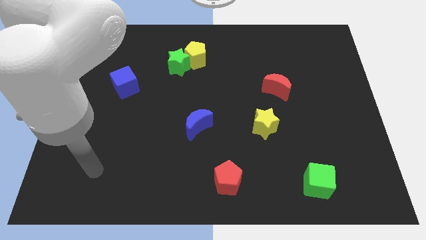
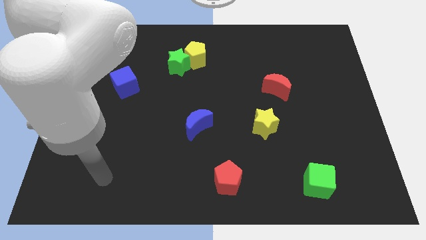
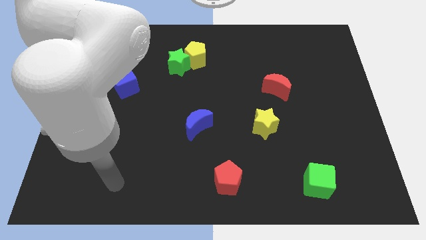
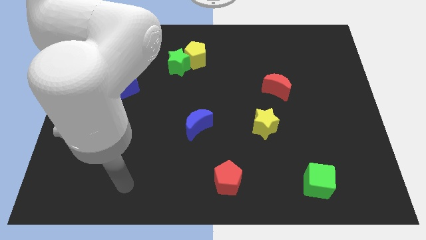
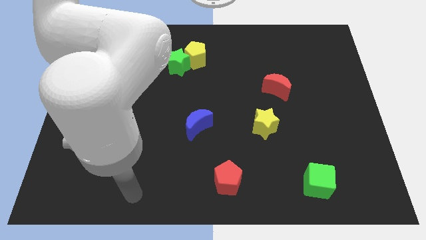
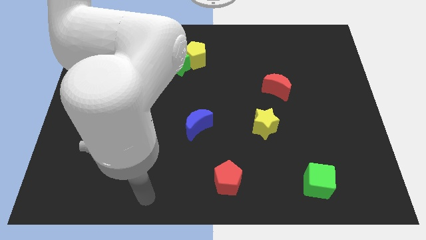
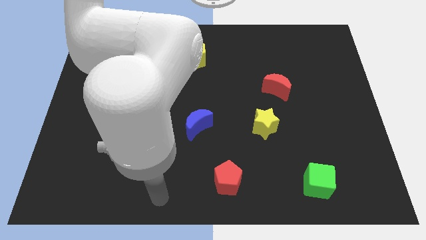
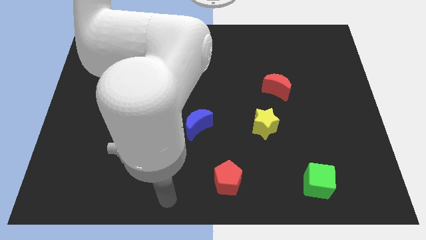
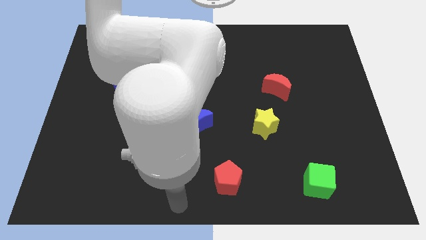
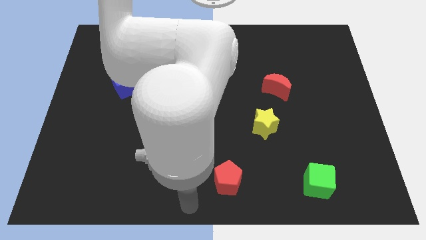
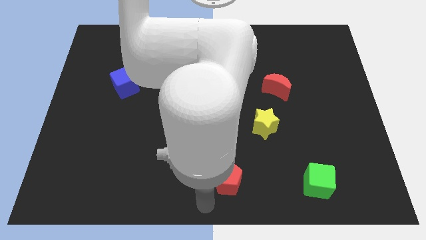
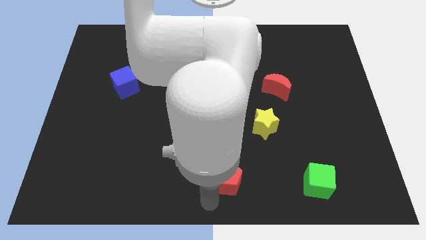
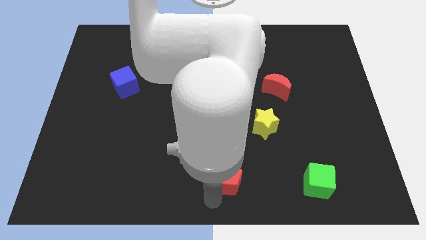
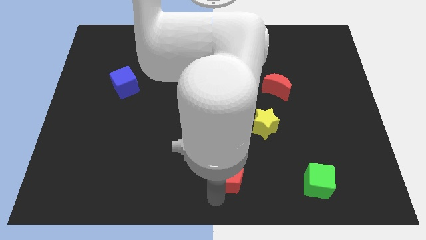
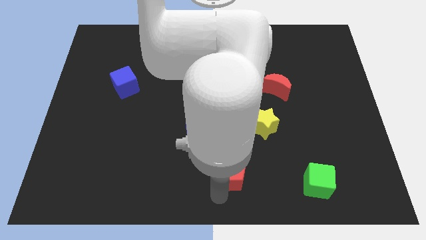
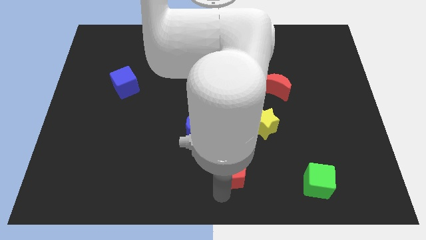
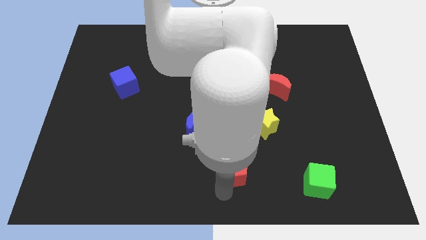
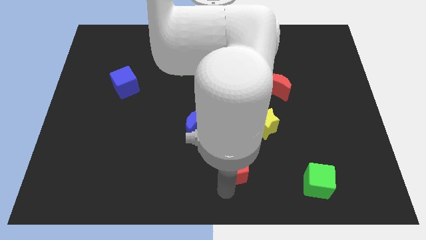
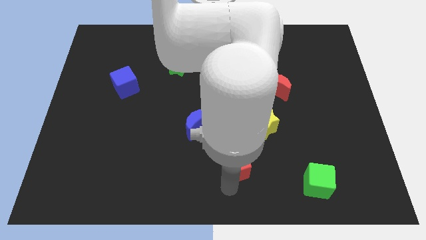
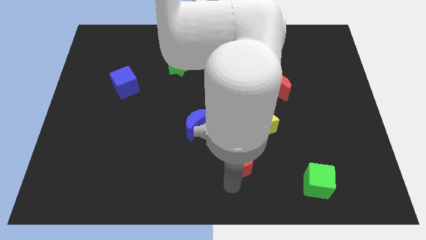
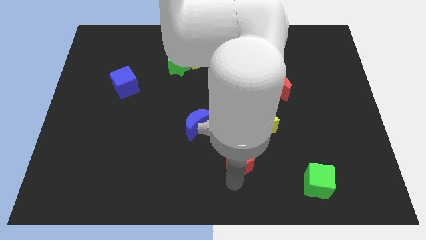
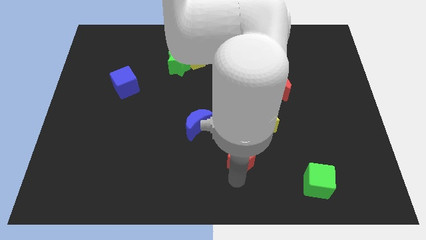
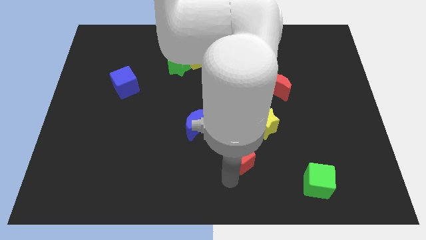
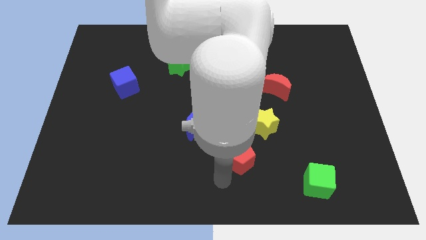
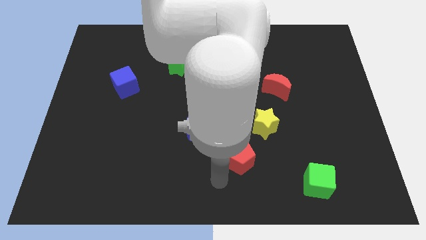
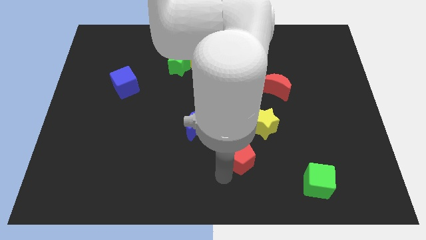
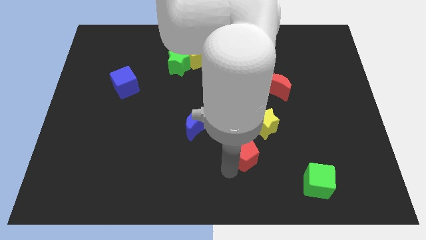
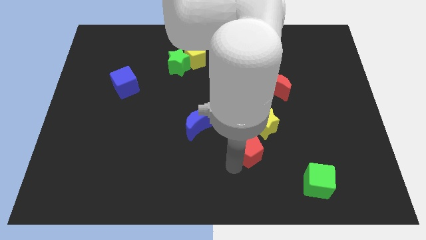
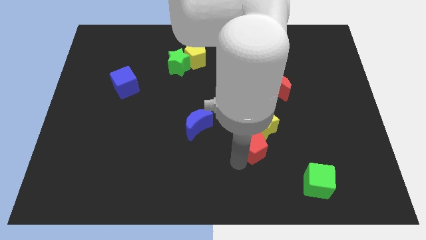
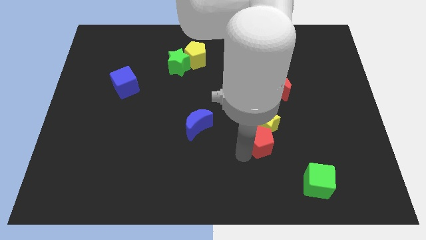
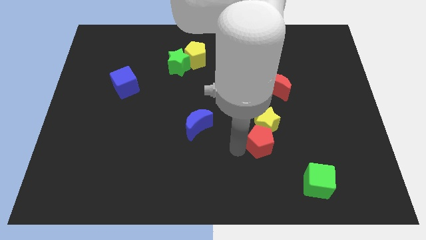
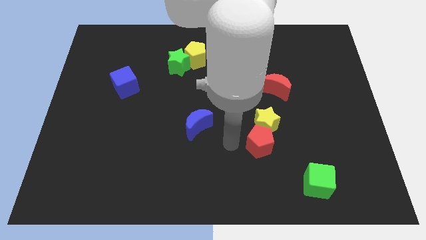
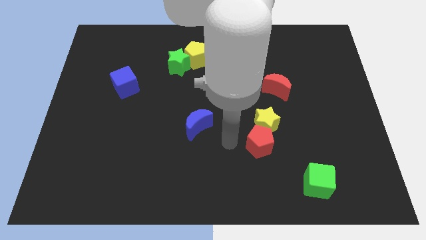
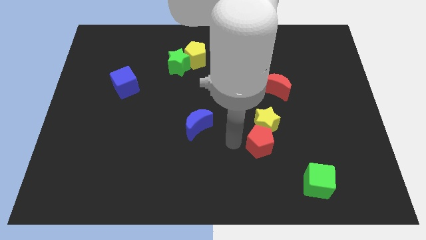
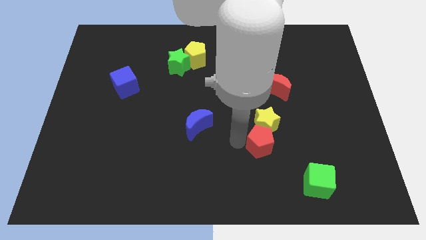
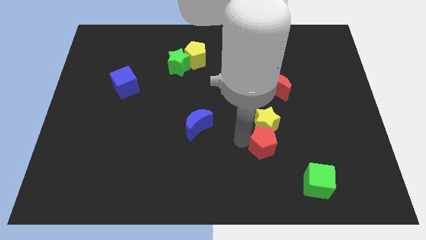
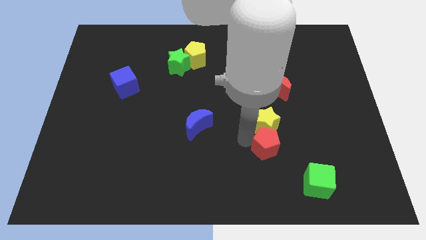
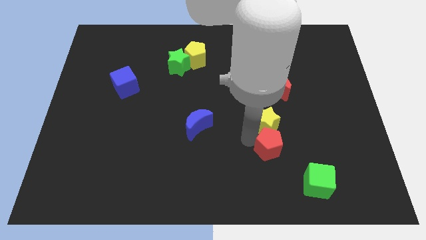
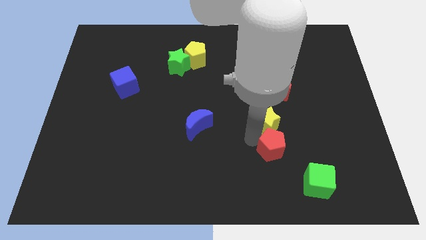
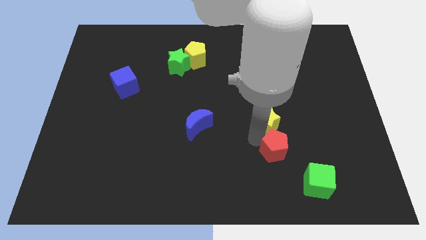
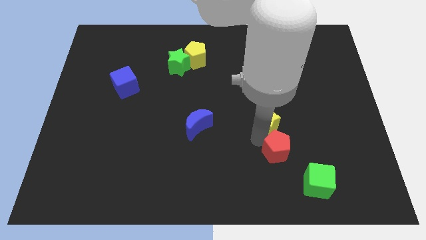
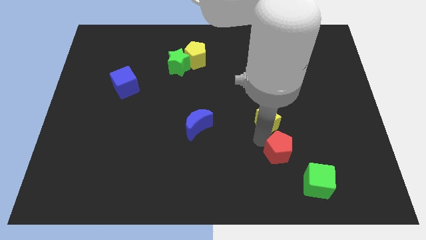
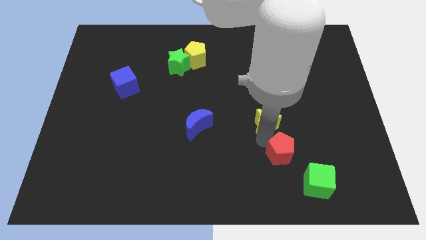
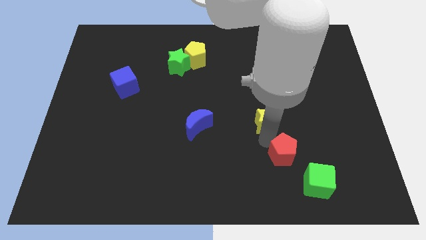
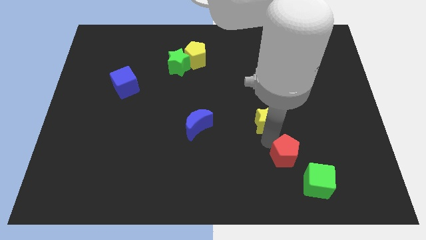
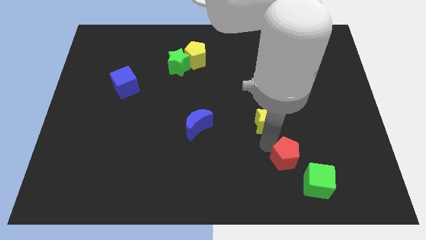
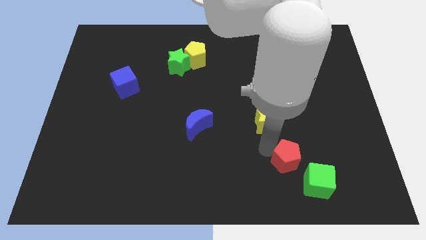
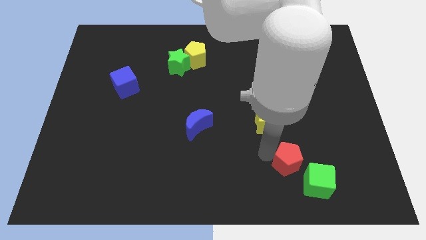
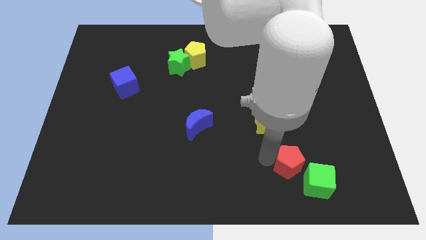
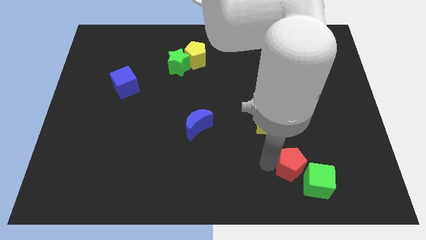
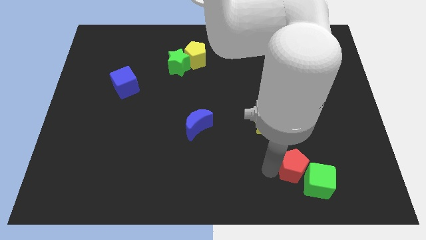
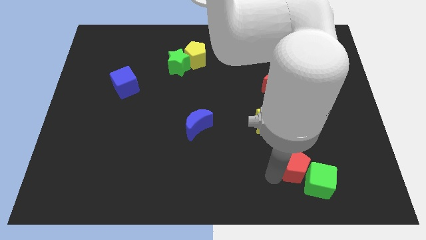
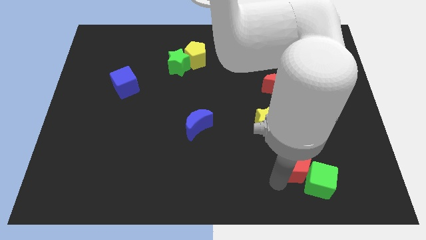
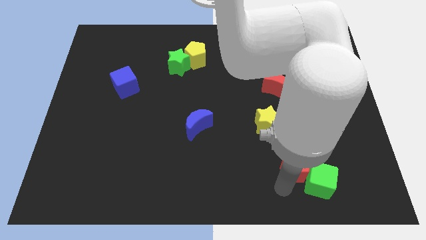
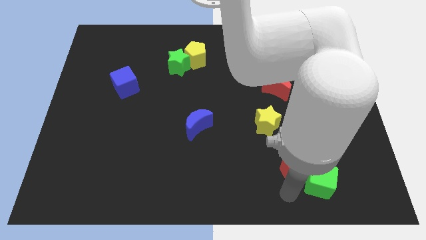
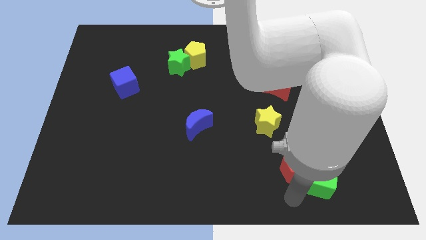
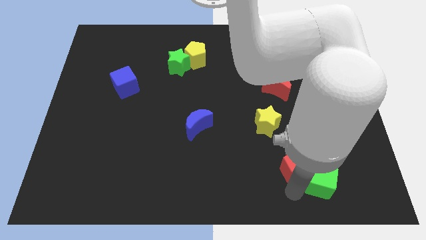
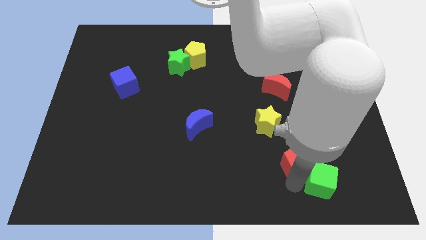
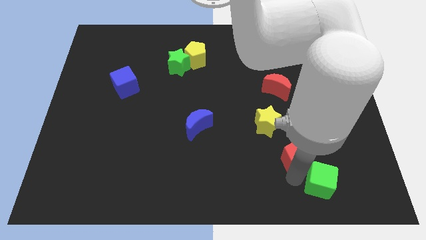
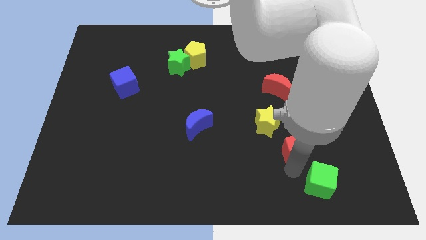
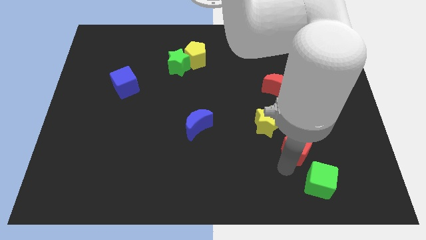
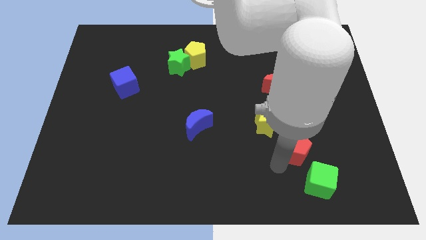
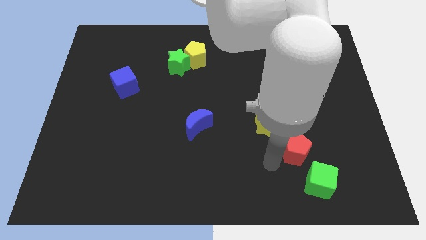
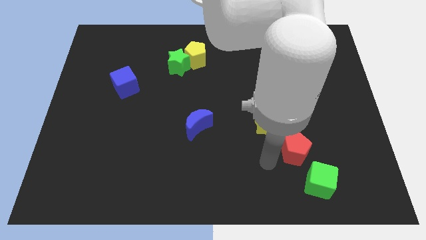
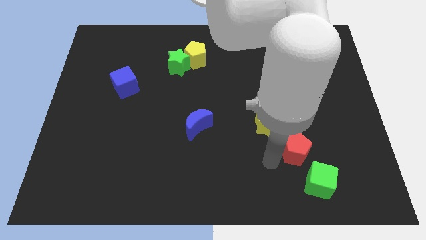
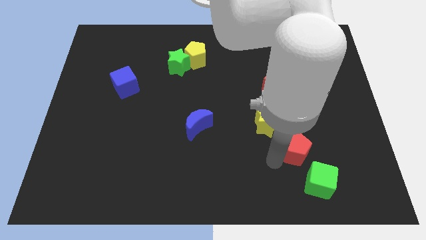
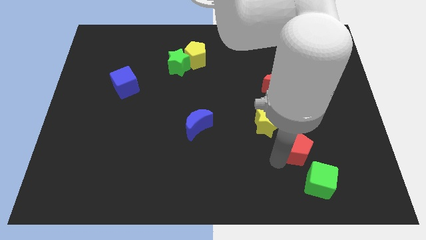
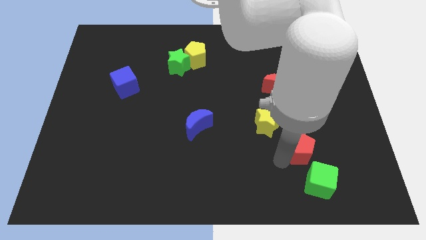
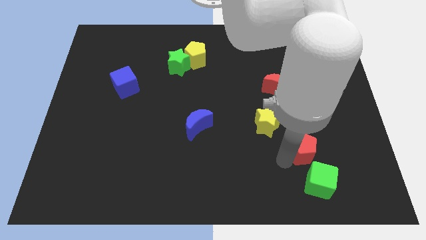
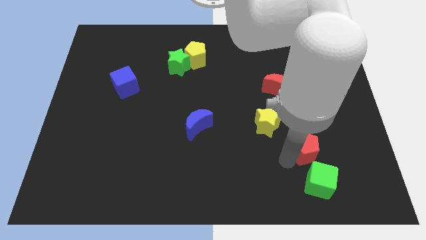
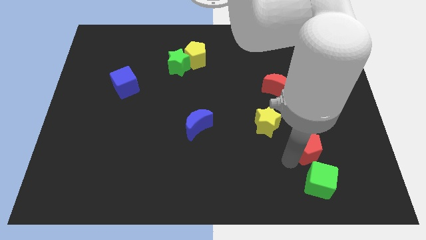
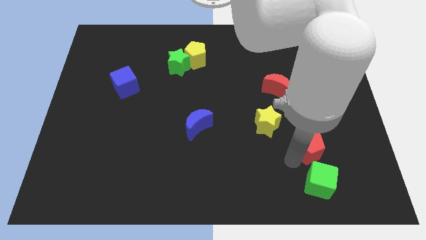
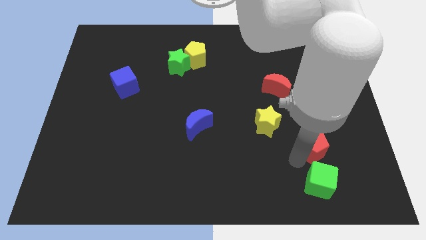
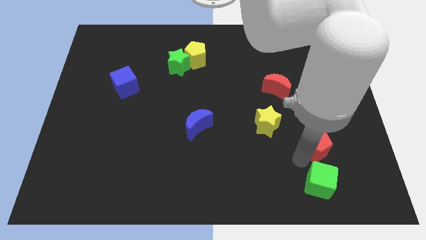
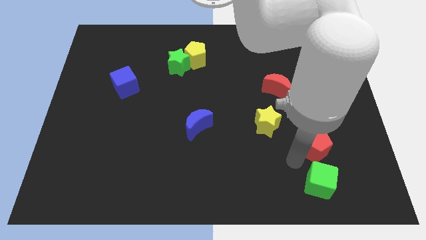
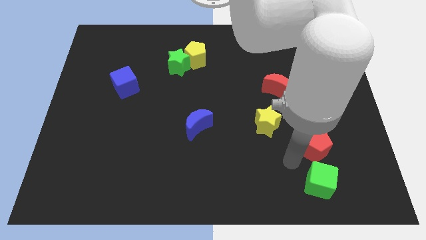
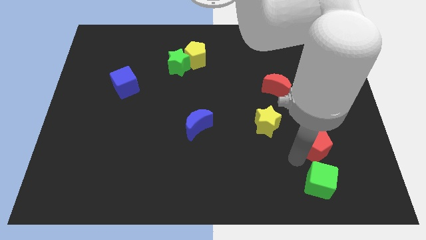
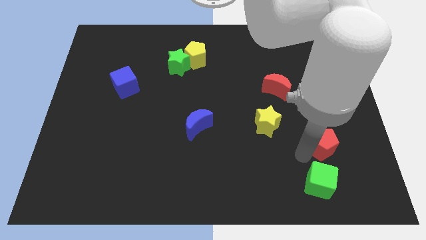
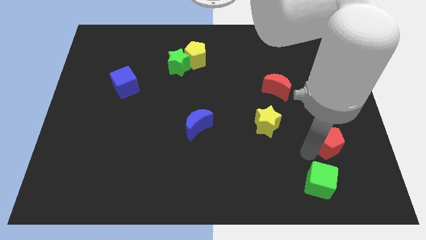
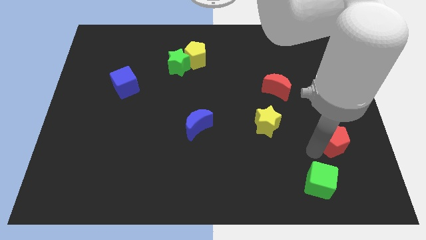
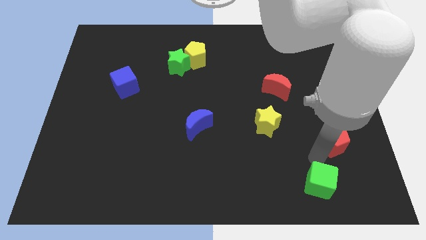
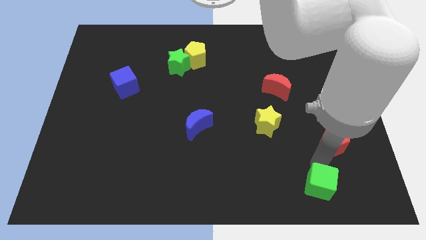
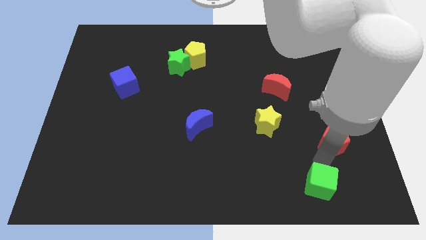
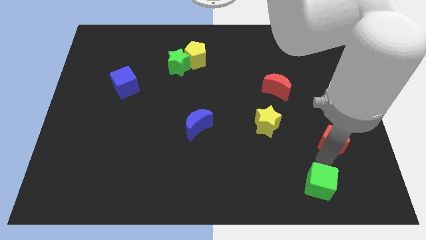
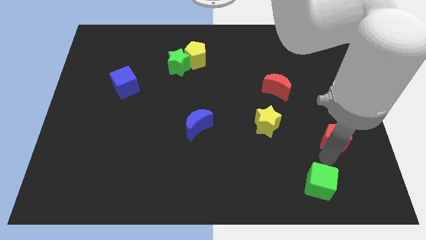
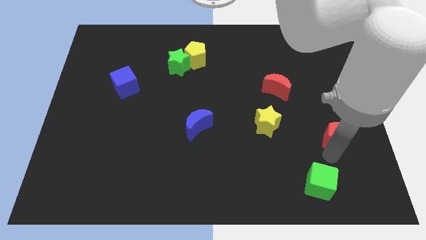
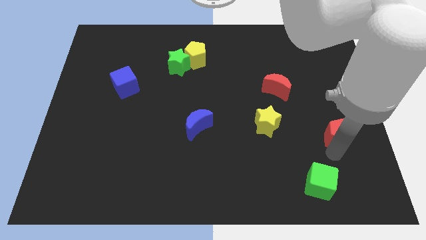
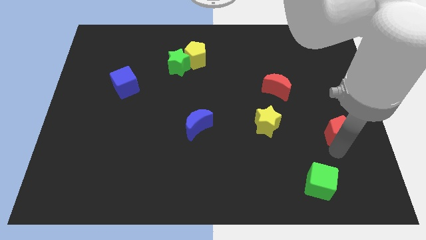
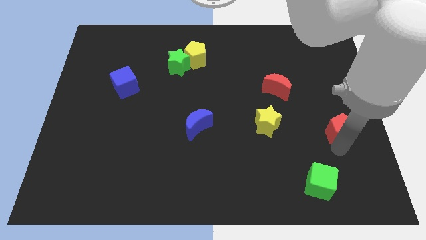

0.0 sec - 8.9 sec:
slide the red pentagon to the right side of the board
